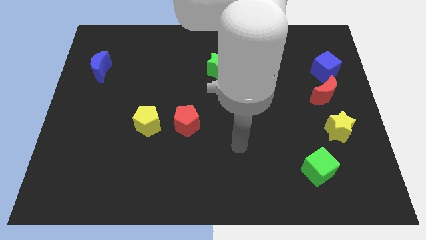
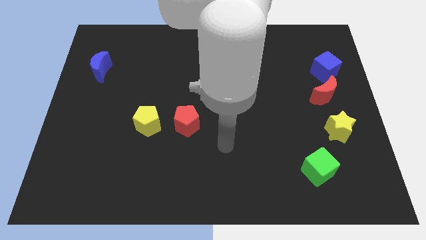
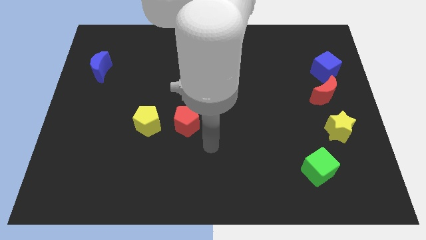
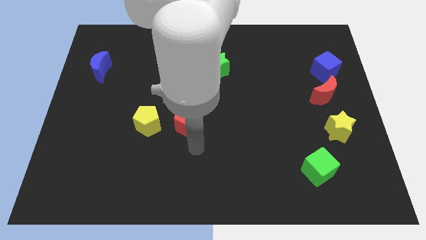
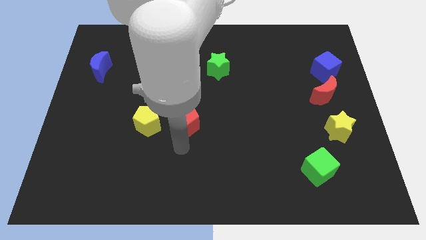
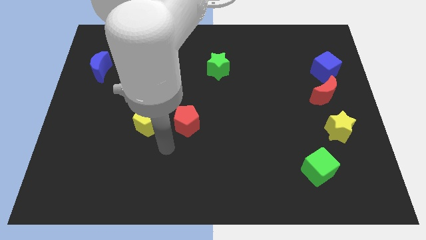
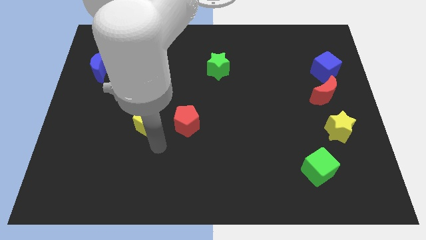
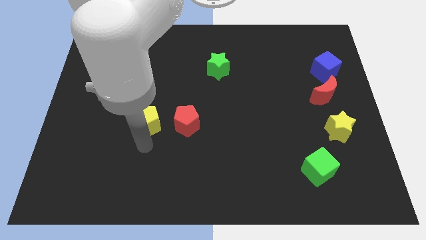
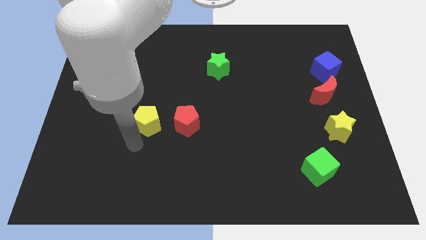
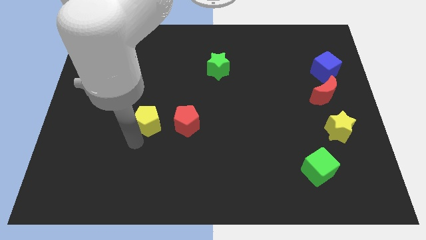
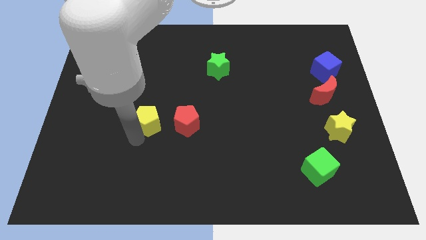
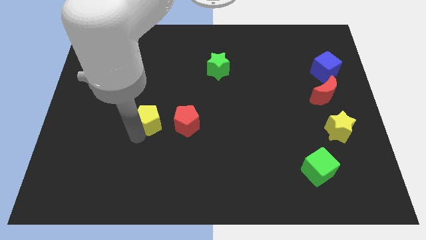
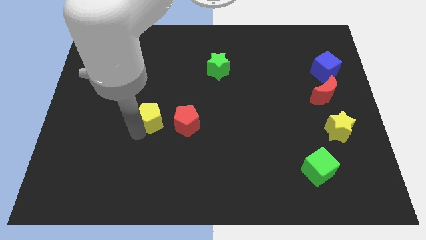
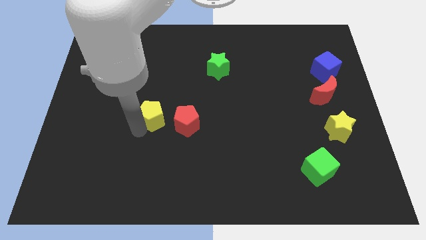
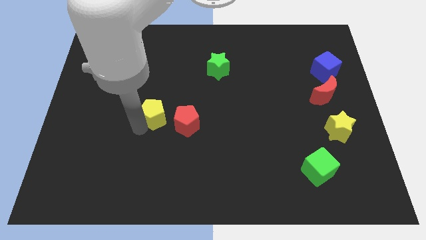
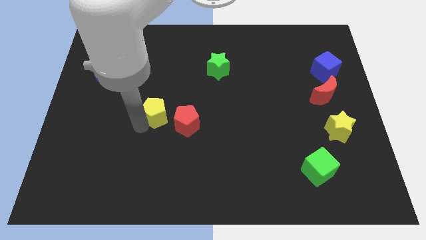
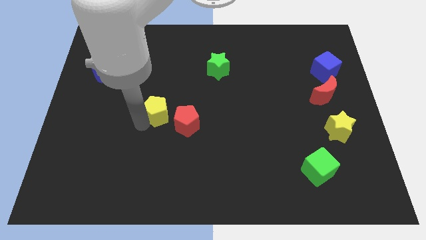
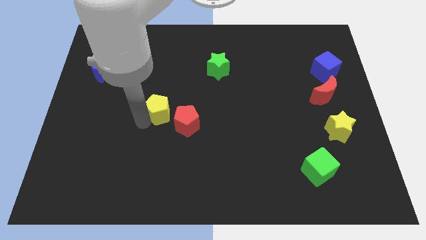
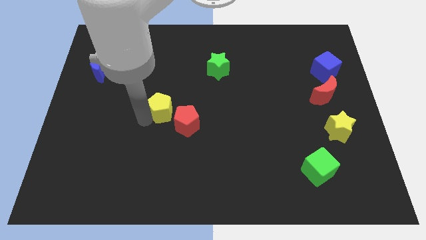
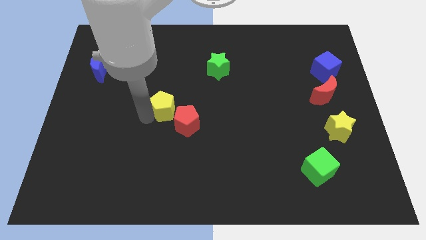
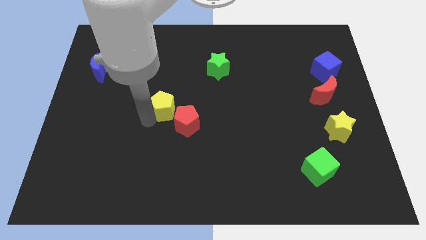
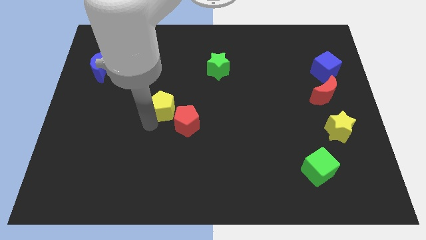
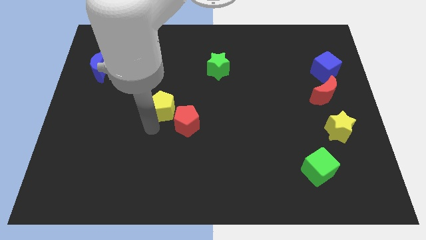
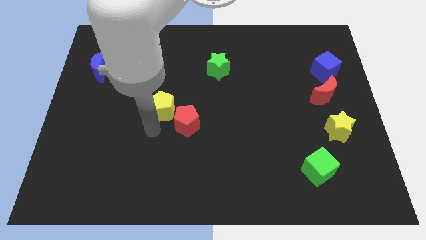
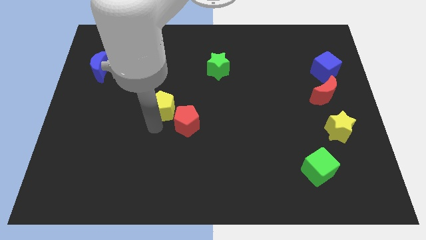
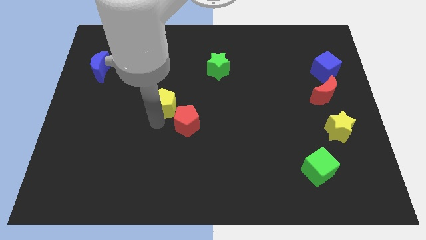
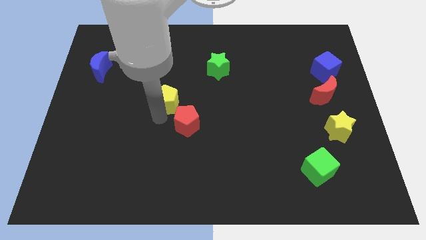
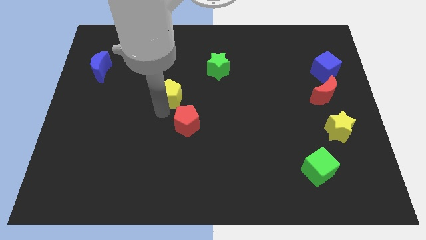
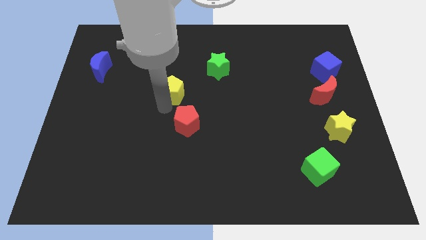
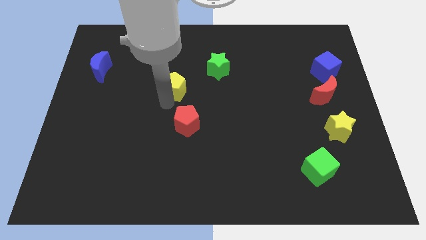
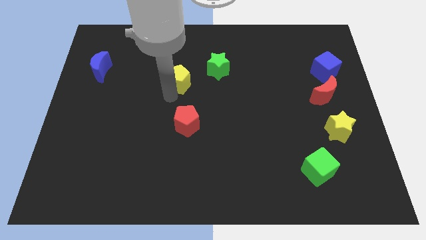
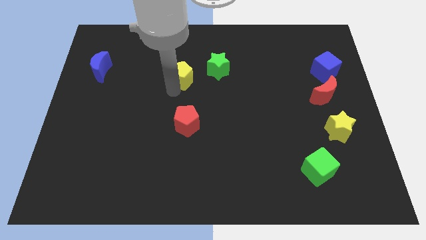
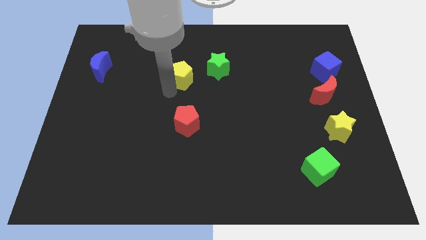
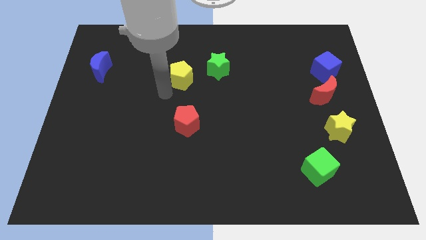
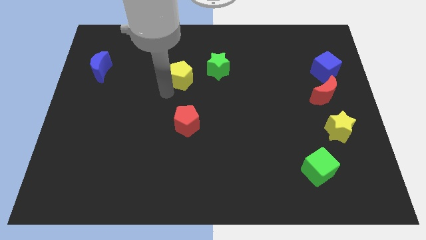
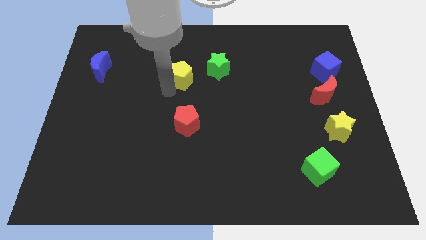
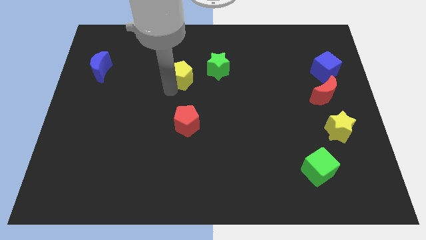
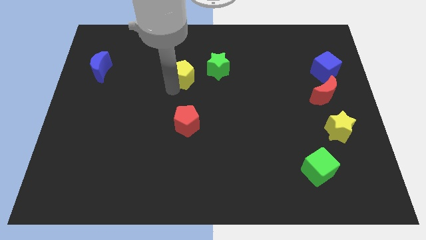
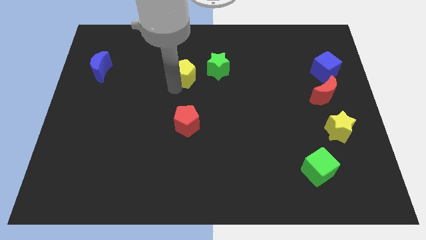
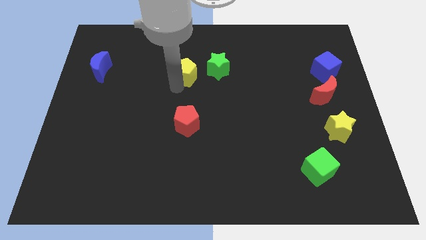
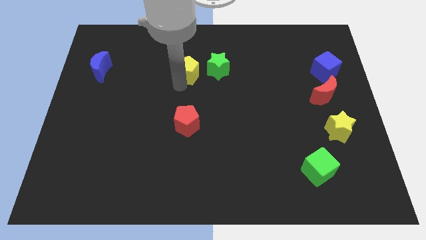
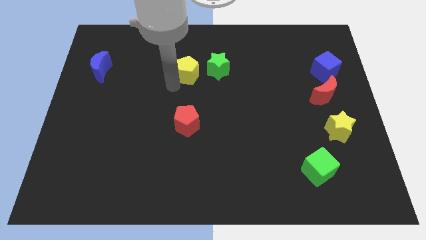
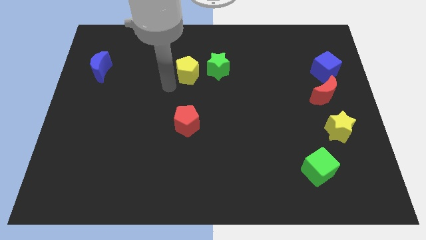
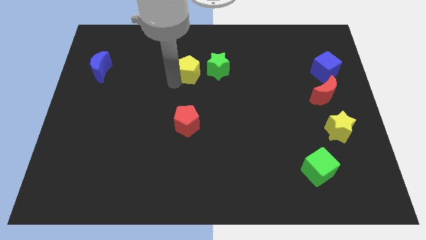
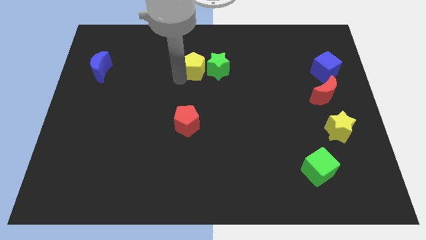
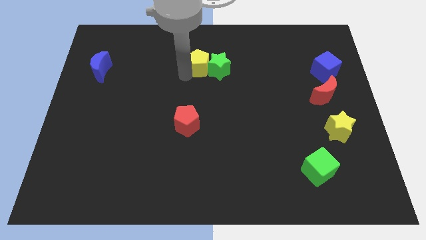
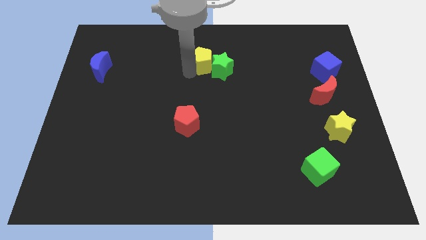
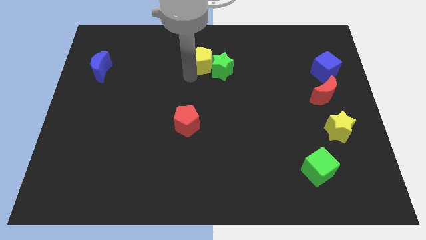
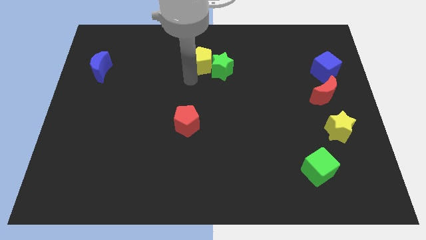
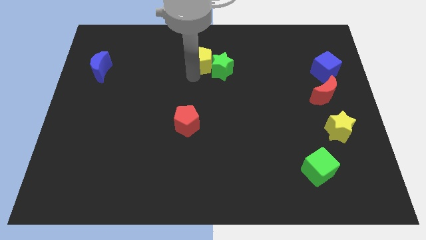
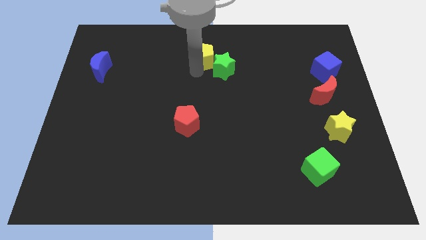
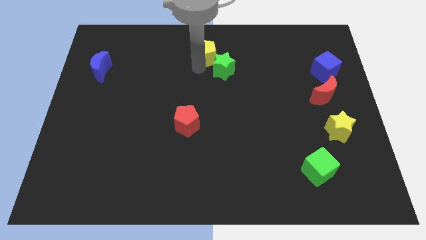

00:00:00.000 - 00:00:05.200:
push the yellow pentagon to the top

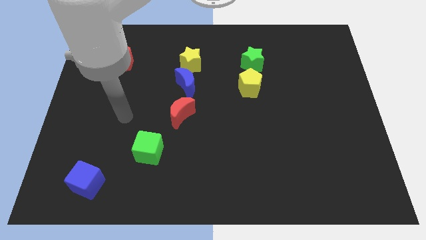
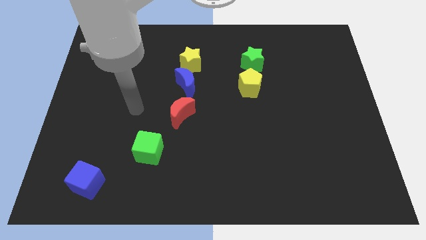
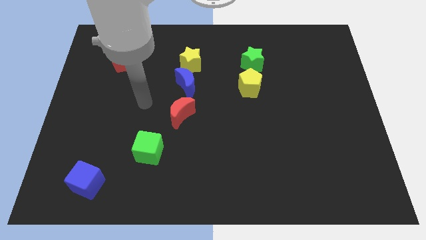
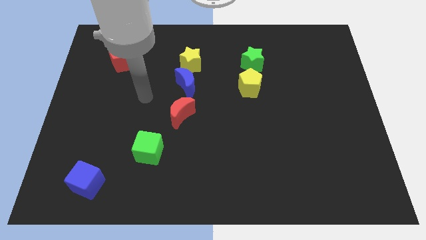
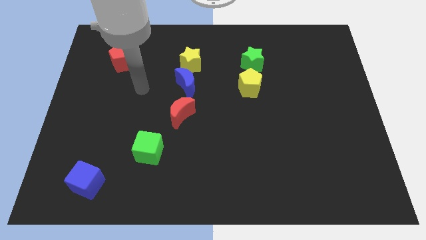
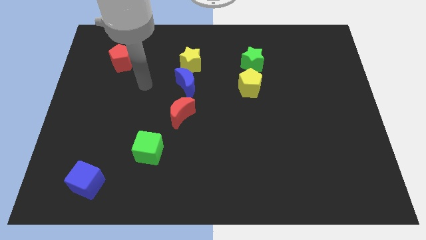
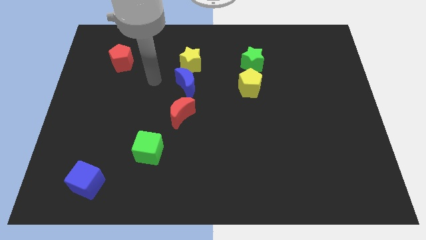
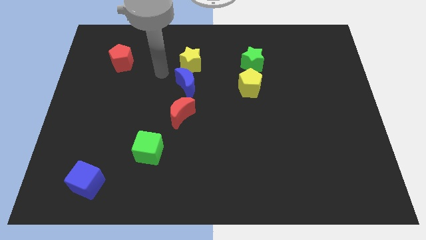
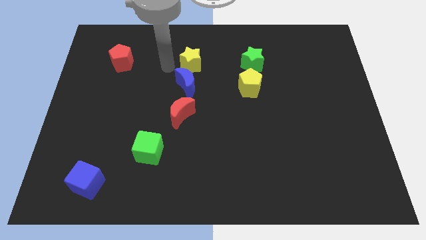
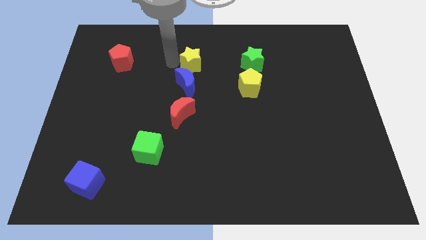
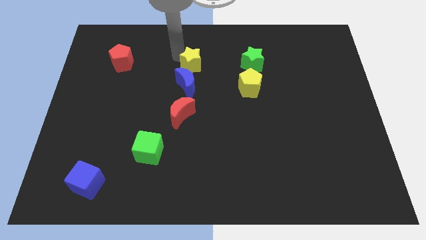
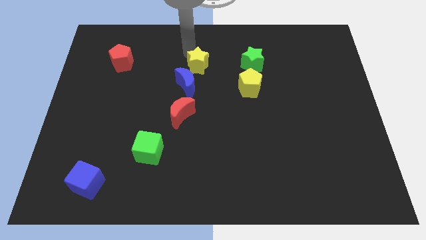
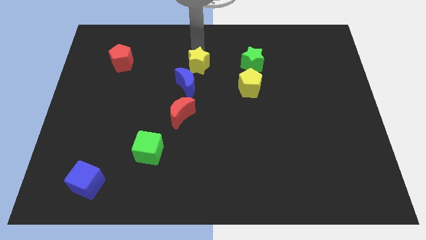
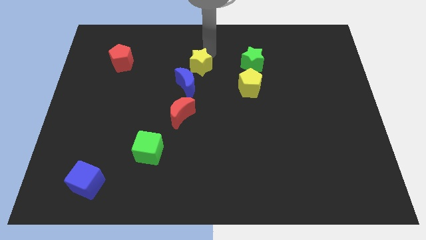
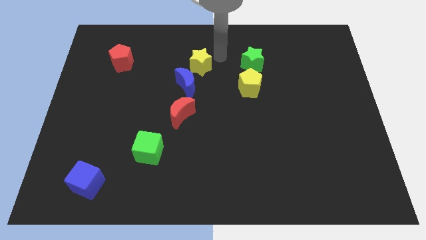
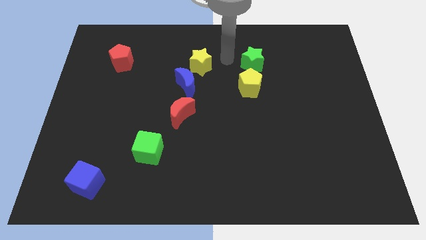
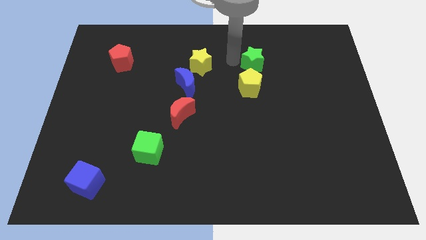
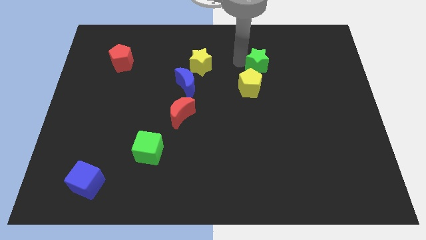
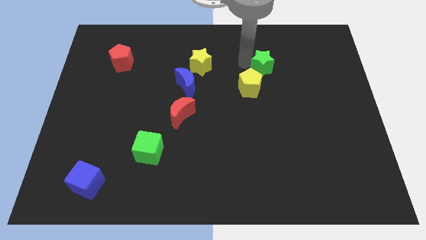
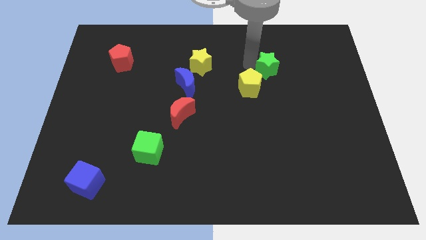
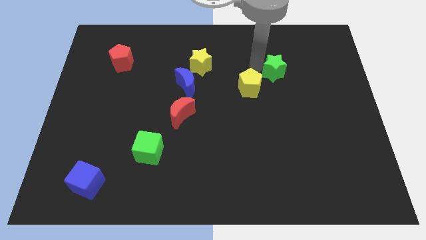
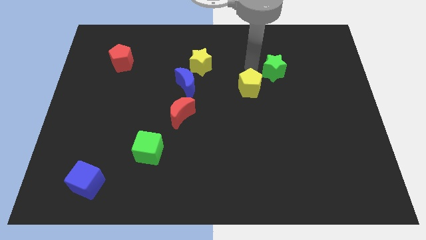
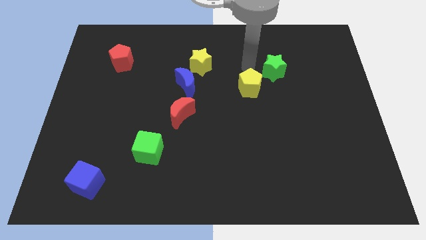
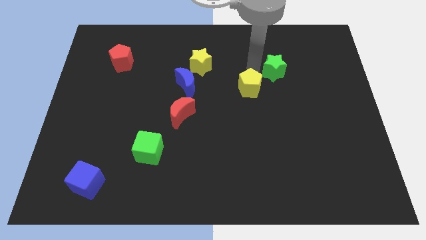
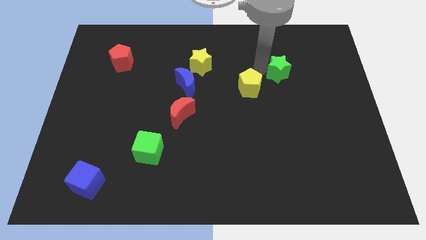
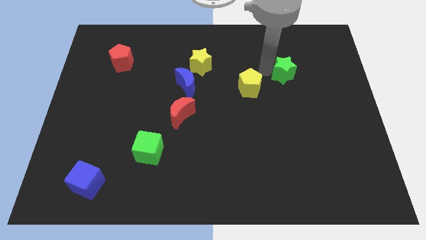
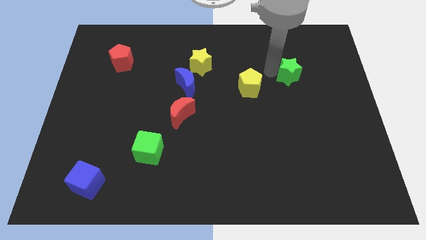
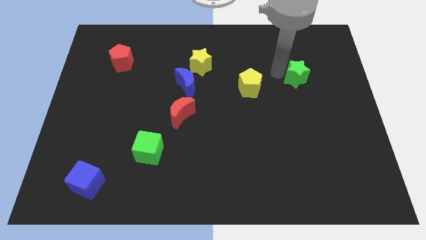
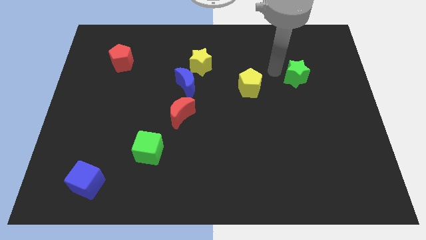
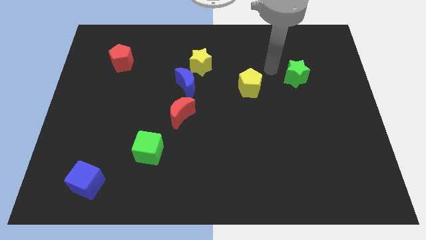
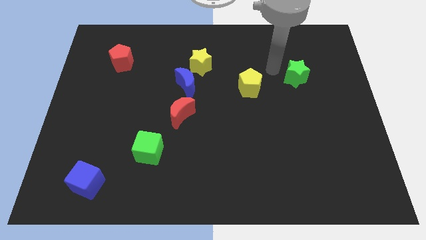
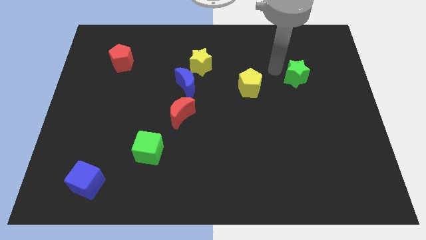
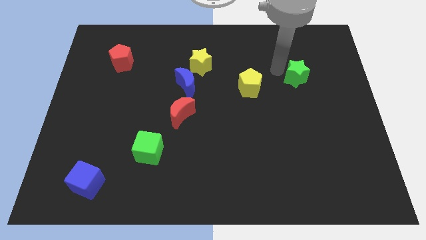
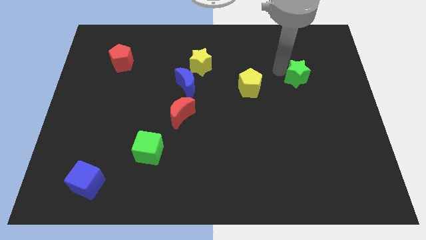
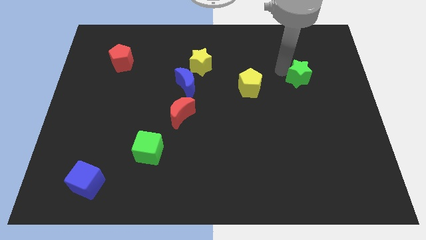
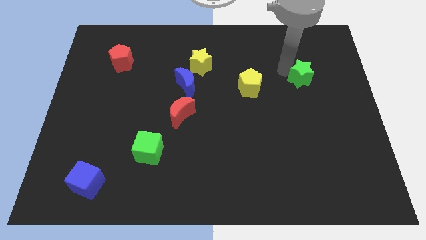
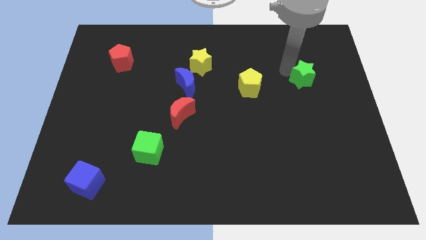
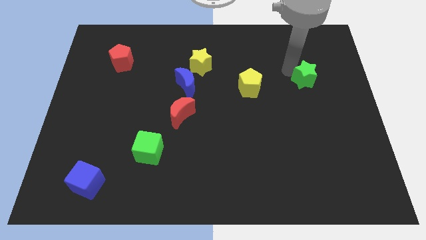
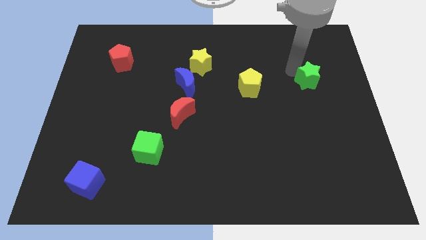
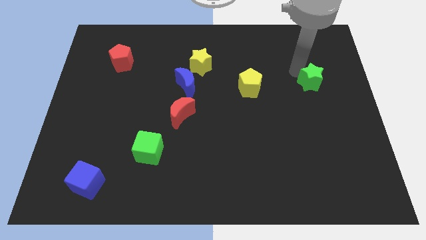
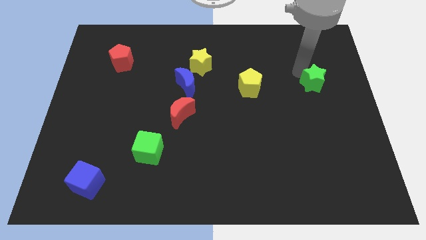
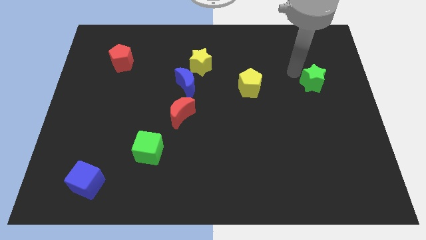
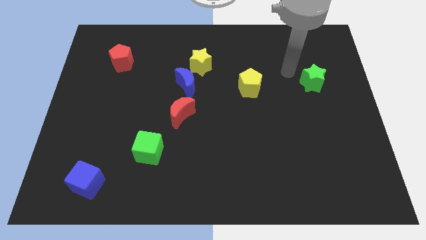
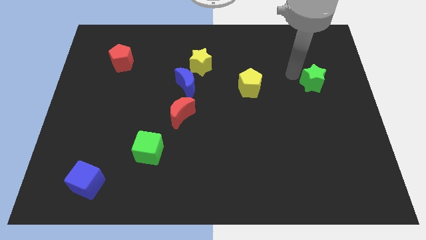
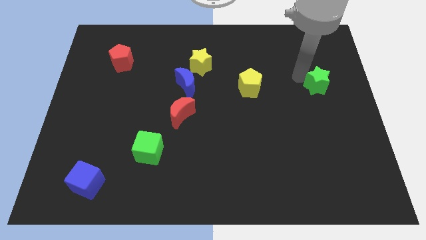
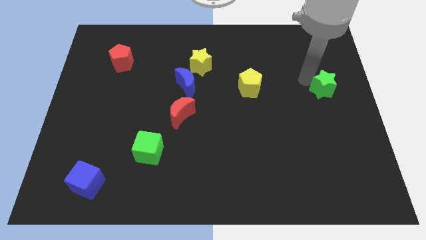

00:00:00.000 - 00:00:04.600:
put the green star to the right side of the board
